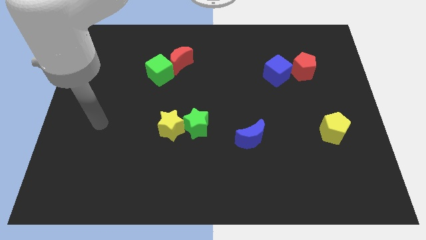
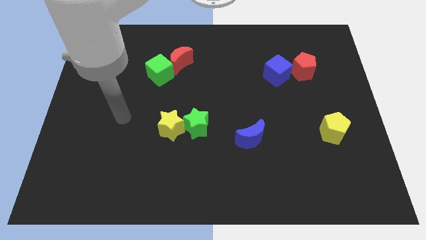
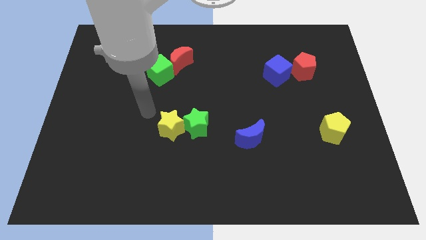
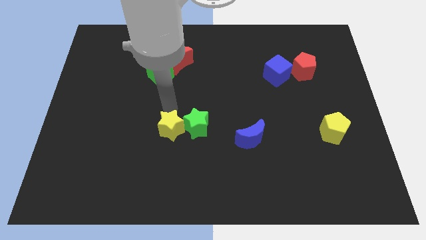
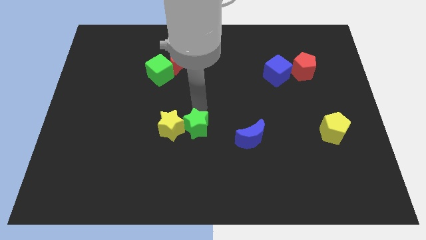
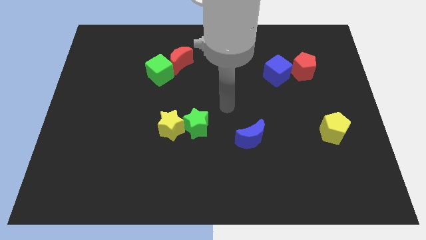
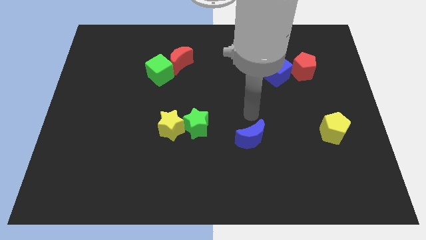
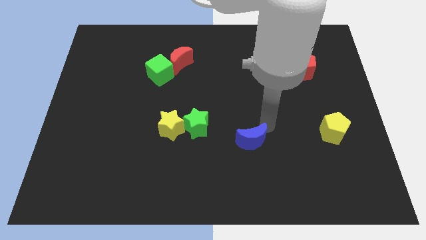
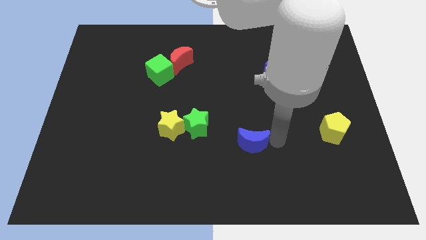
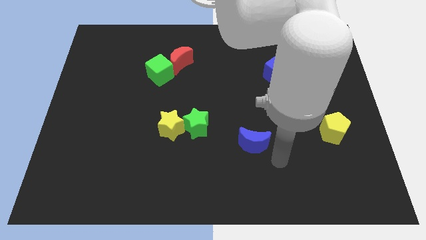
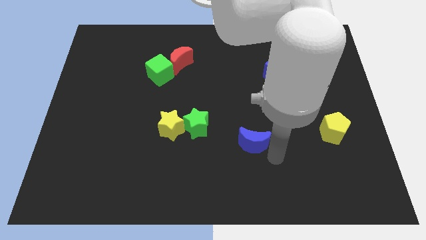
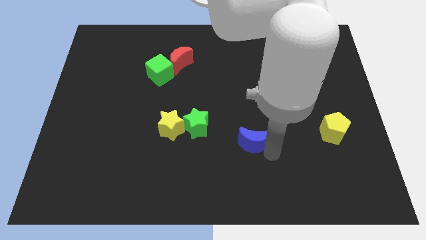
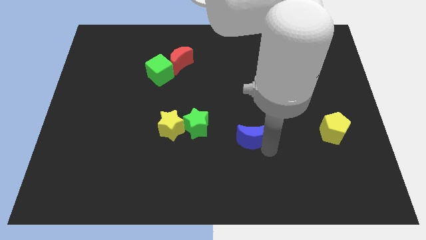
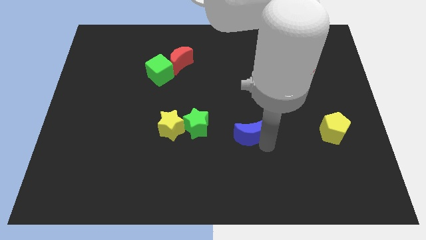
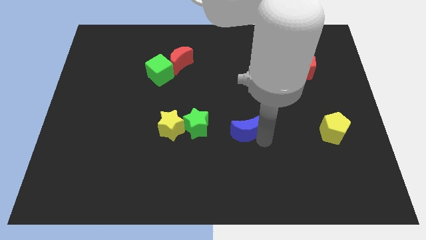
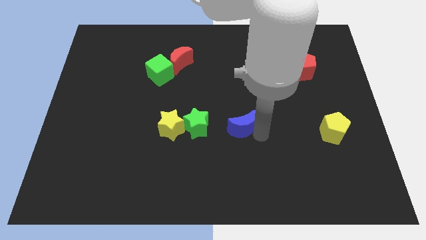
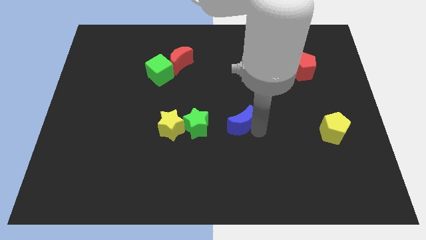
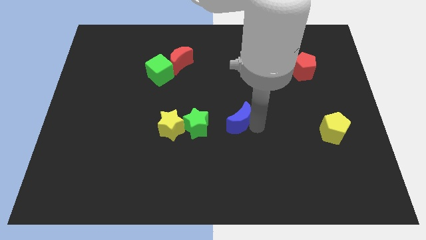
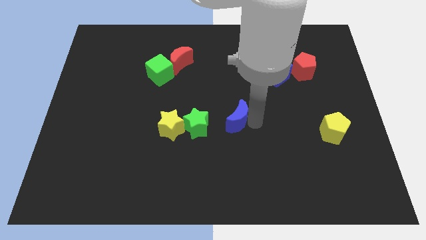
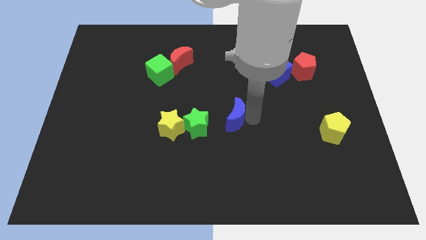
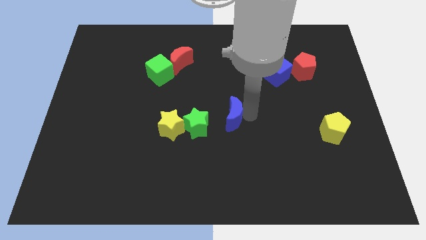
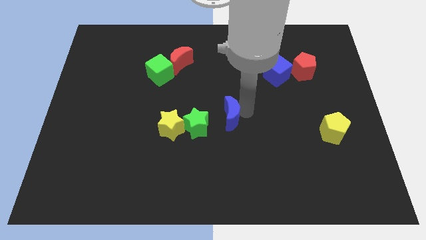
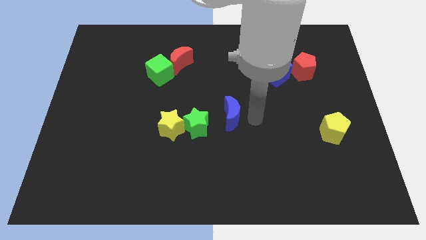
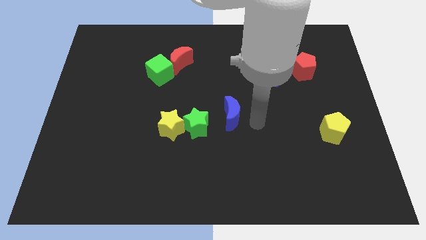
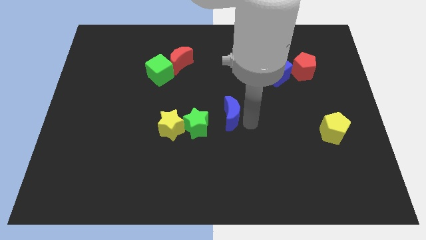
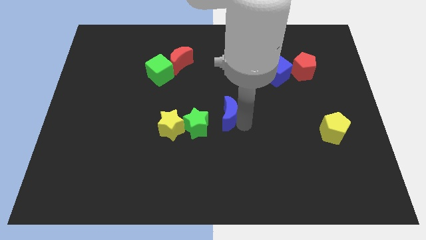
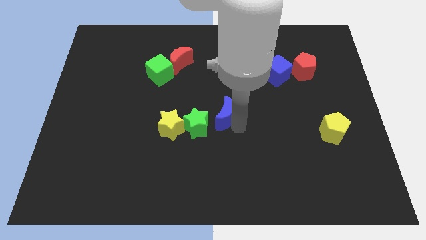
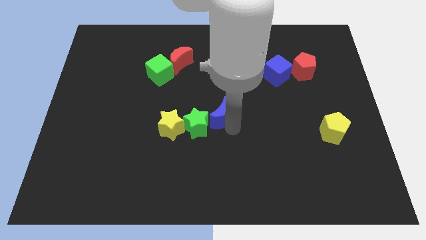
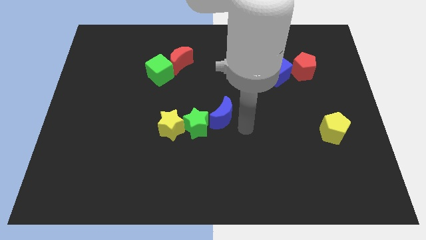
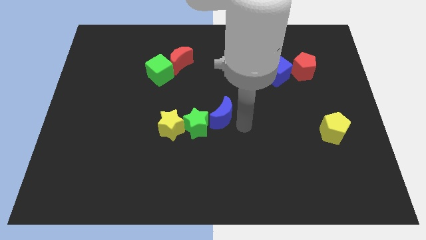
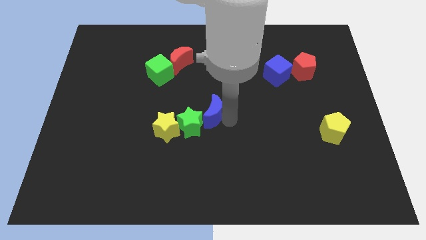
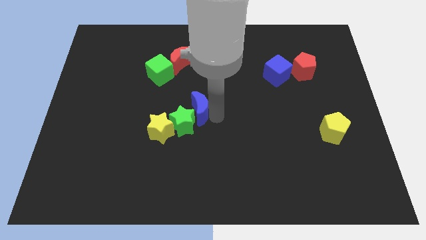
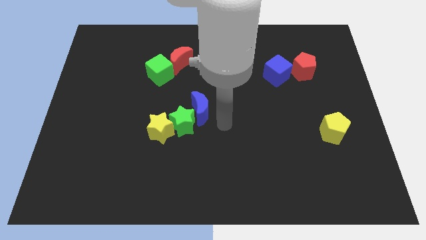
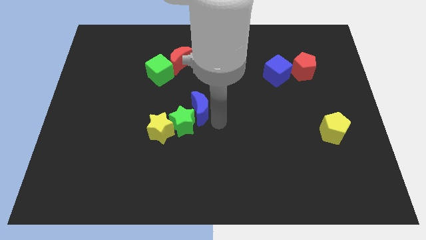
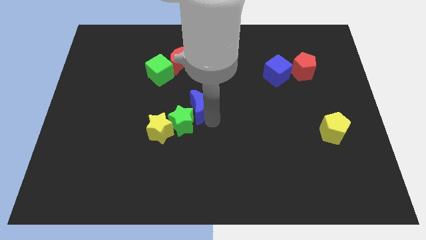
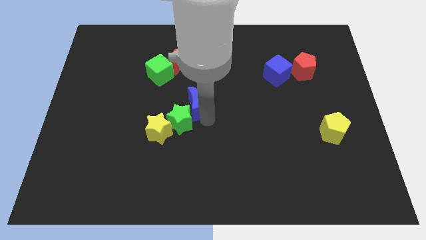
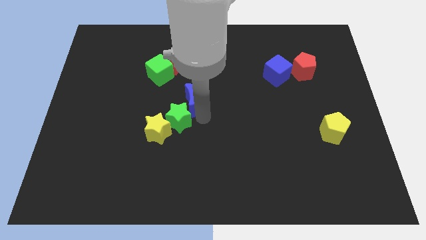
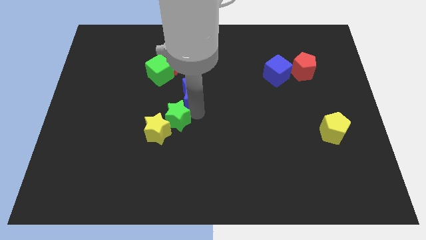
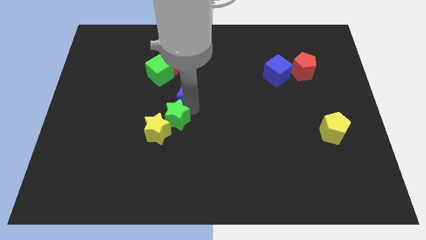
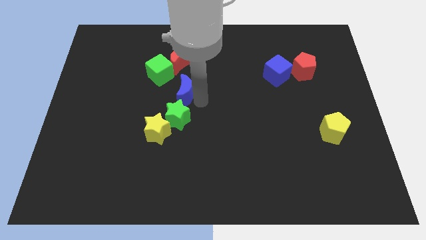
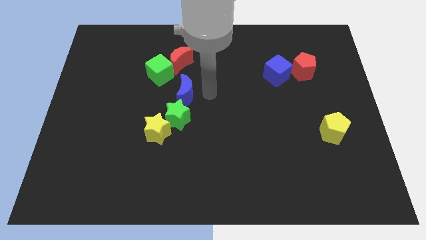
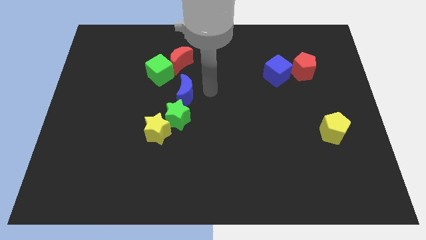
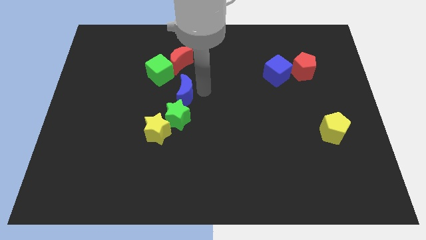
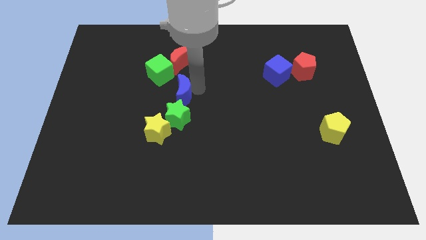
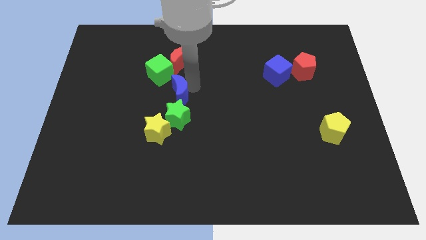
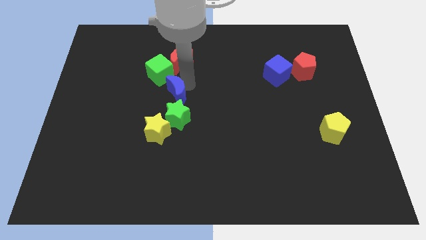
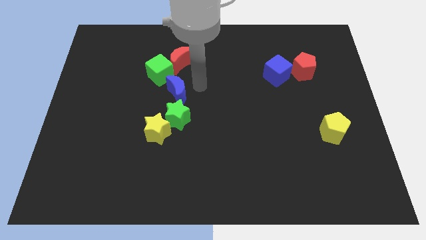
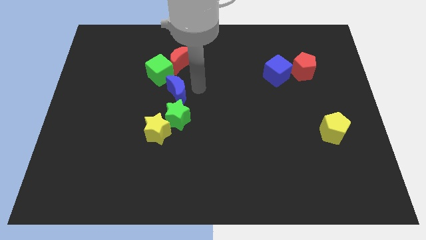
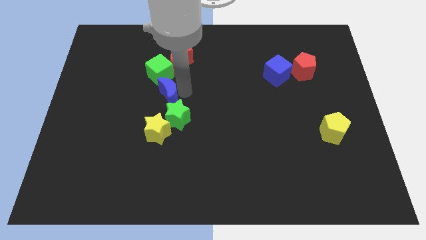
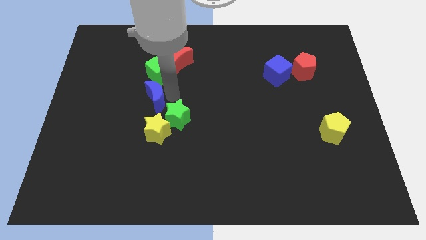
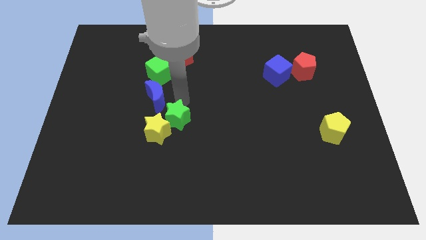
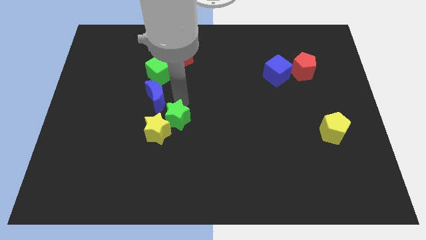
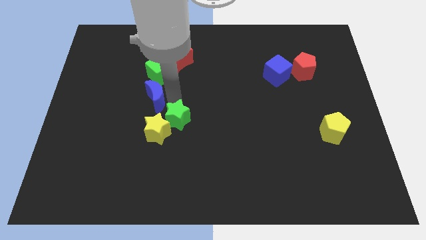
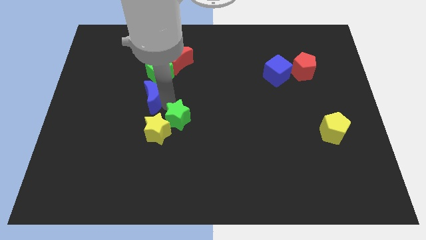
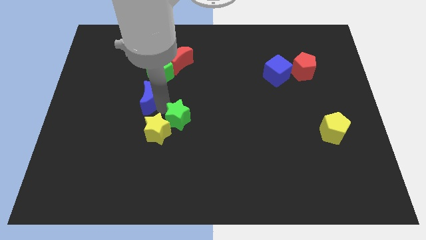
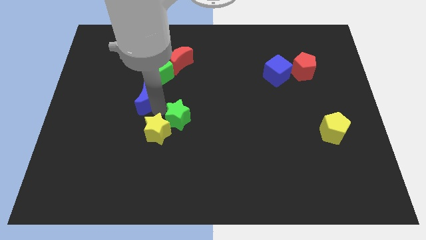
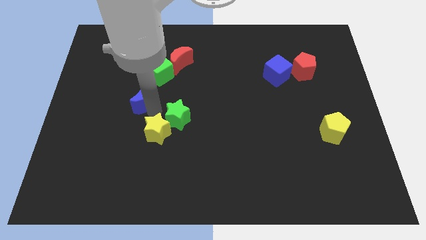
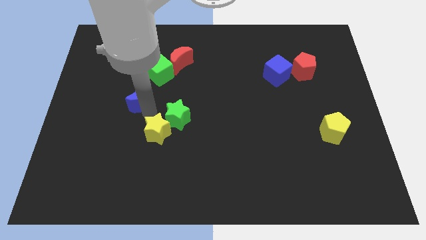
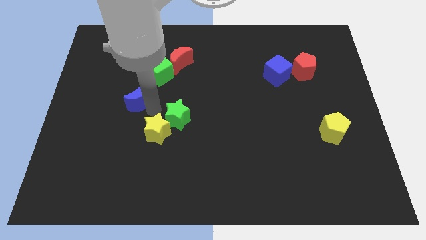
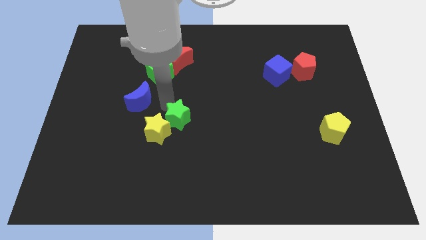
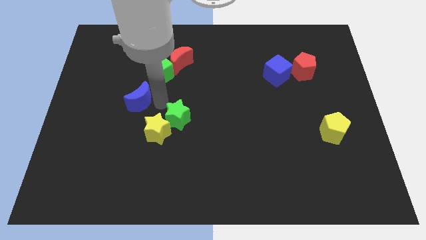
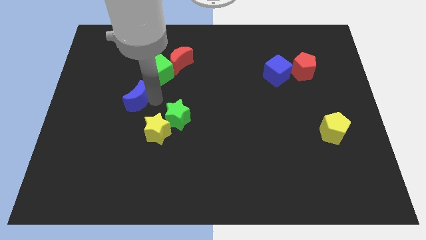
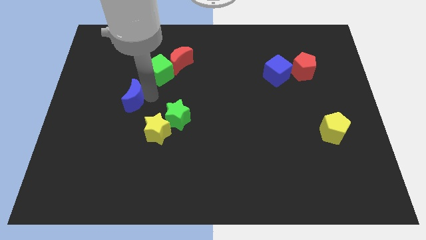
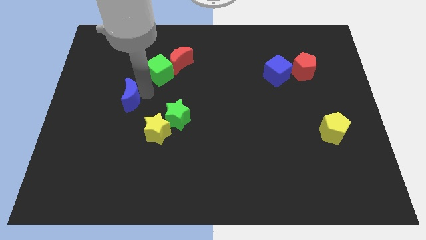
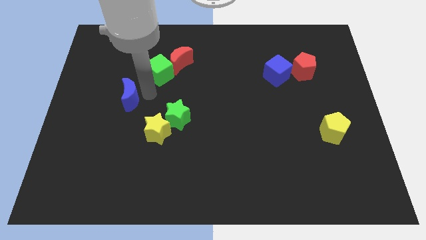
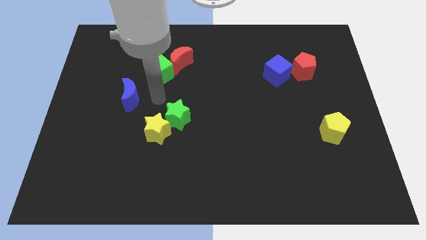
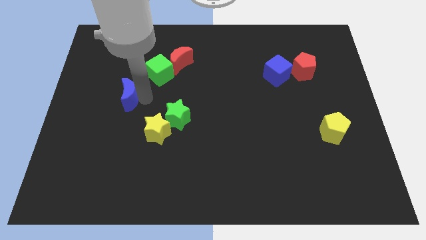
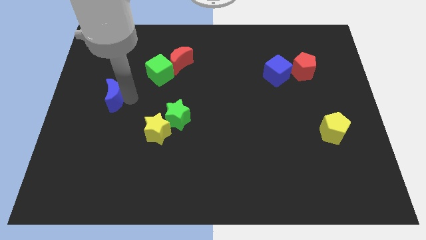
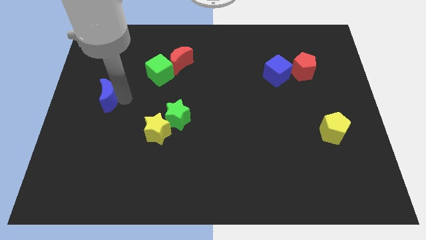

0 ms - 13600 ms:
slide the blue moon to the left side of the board
